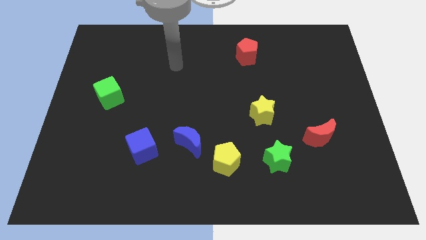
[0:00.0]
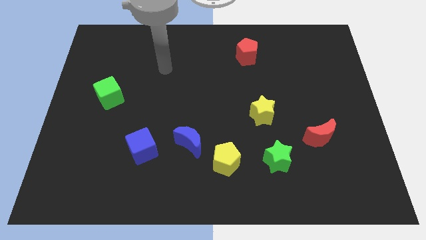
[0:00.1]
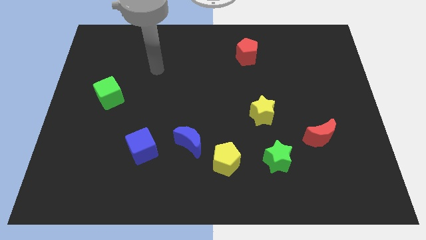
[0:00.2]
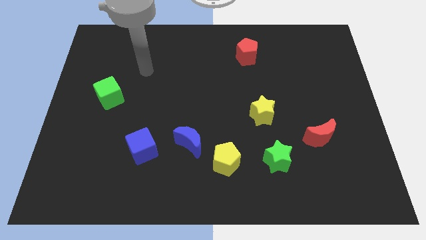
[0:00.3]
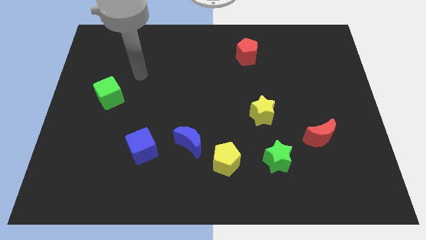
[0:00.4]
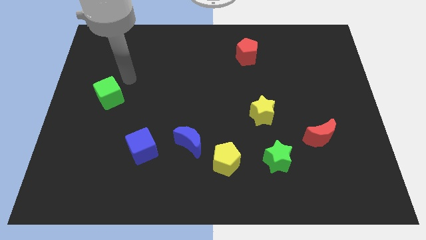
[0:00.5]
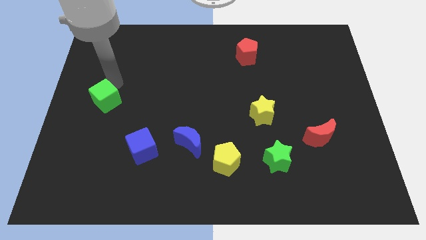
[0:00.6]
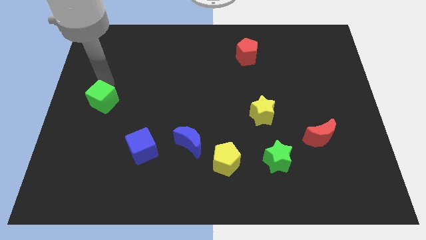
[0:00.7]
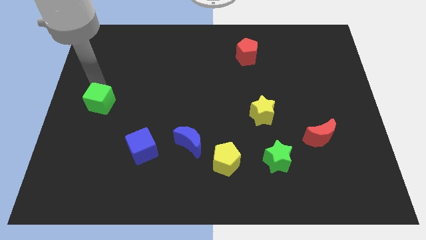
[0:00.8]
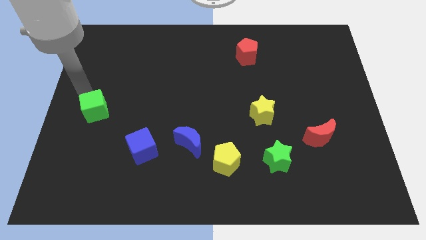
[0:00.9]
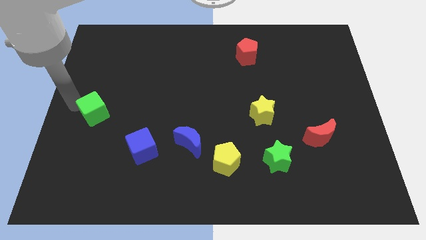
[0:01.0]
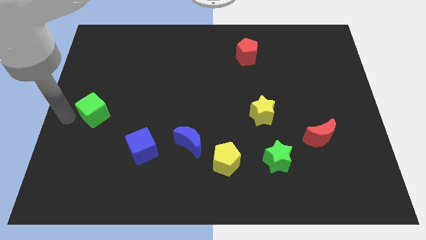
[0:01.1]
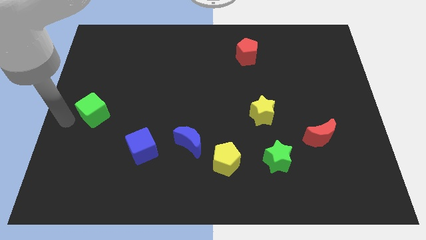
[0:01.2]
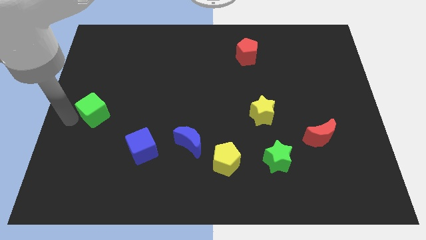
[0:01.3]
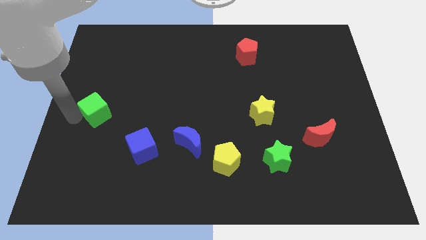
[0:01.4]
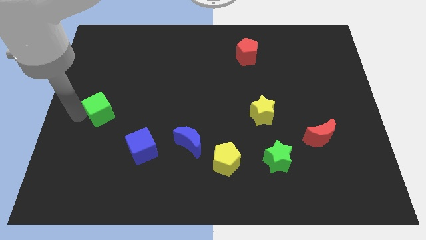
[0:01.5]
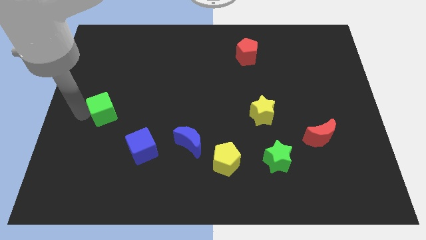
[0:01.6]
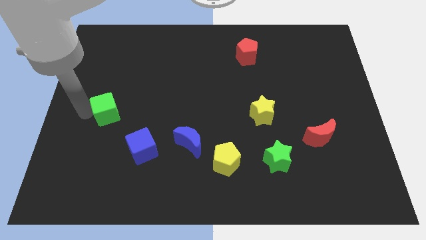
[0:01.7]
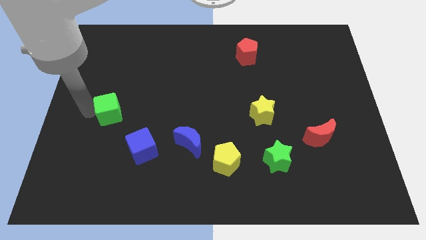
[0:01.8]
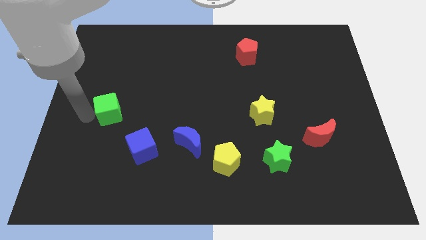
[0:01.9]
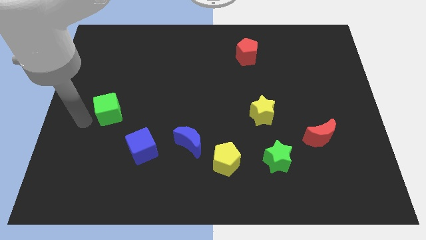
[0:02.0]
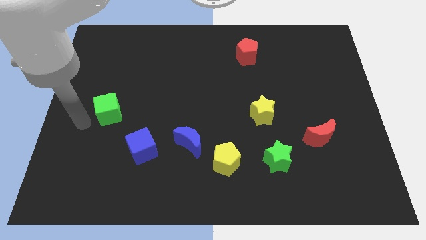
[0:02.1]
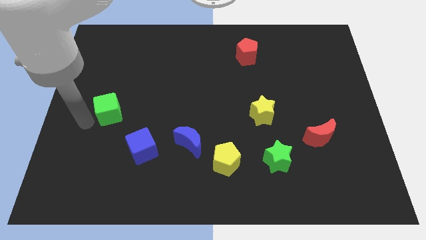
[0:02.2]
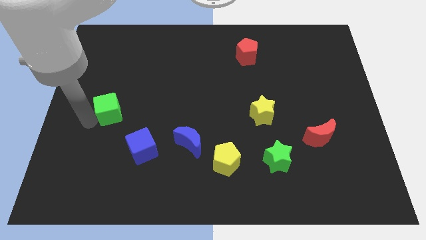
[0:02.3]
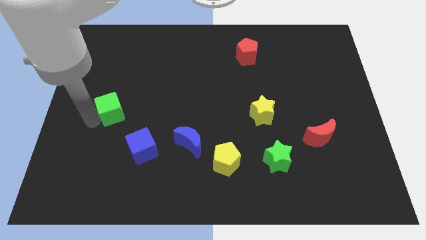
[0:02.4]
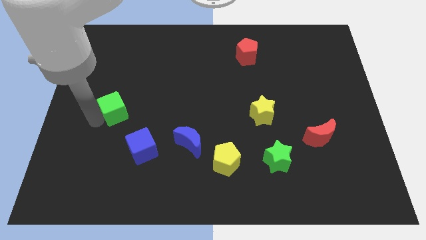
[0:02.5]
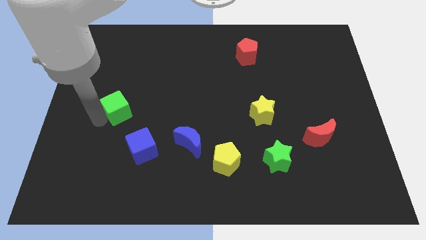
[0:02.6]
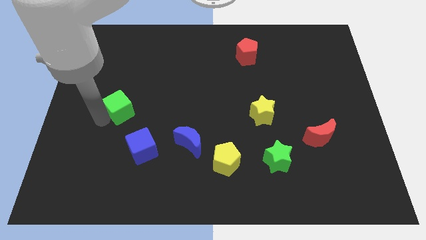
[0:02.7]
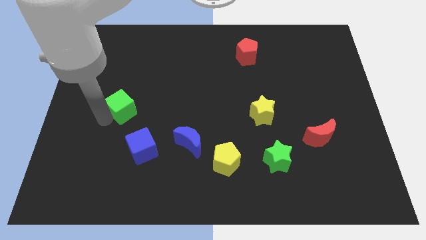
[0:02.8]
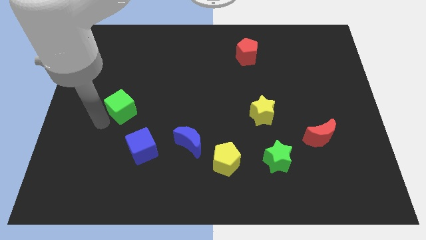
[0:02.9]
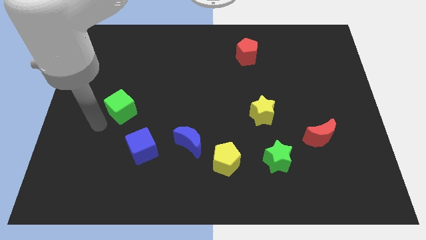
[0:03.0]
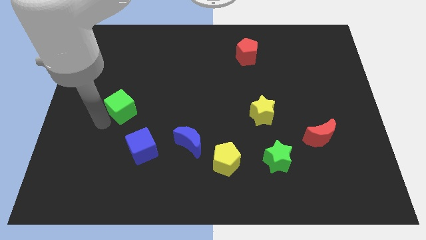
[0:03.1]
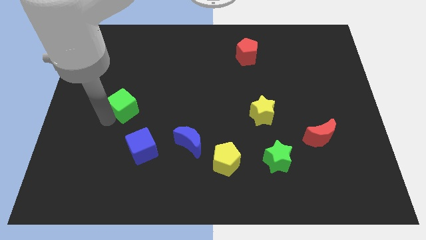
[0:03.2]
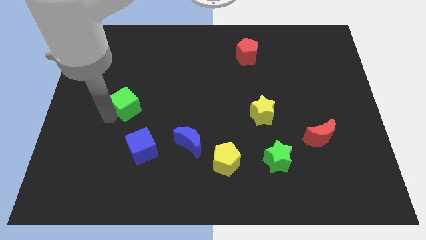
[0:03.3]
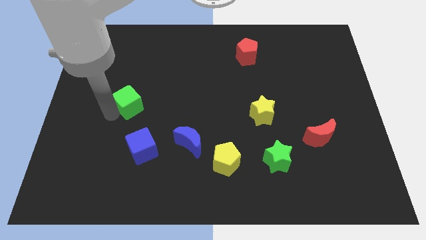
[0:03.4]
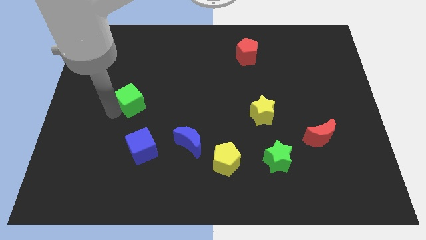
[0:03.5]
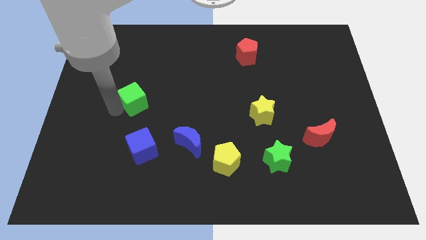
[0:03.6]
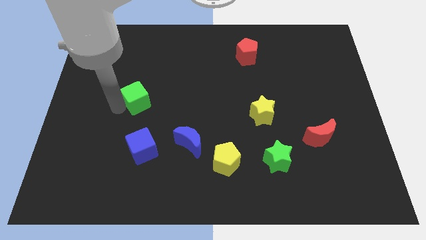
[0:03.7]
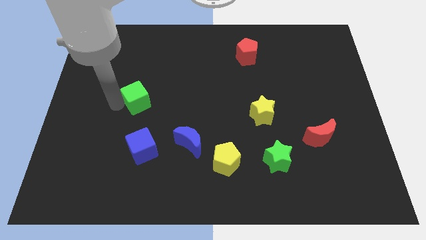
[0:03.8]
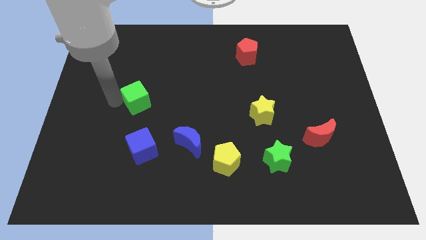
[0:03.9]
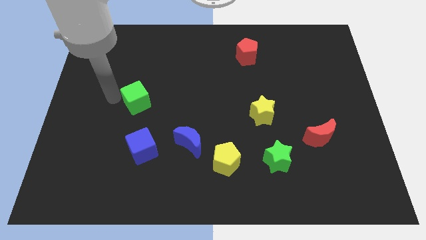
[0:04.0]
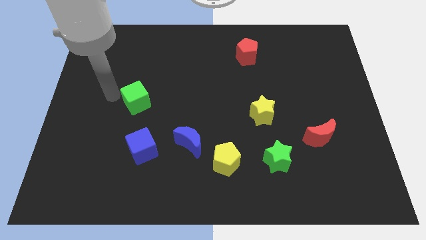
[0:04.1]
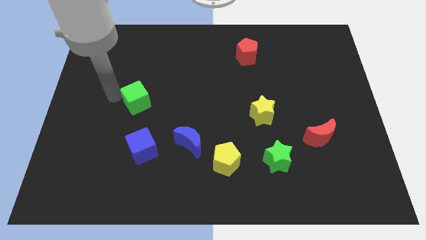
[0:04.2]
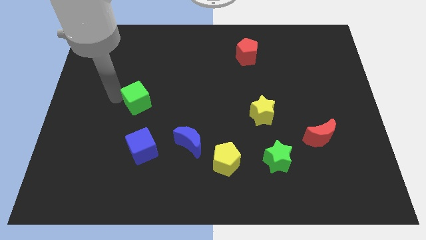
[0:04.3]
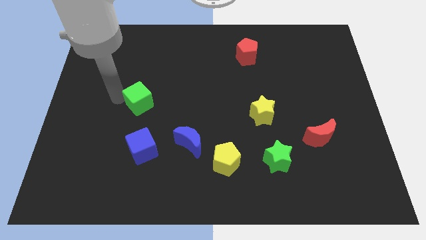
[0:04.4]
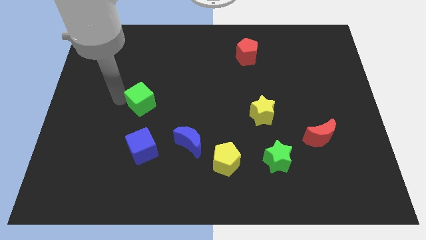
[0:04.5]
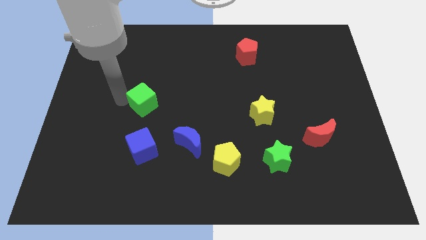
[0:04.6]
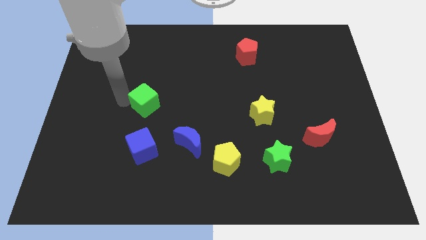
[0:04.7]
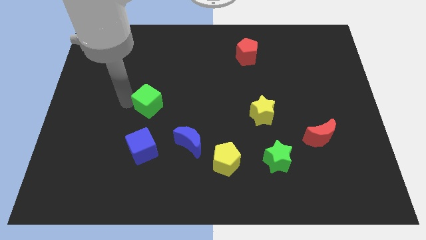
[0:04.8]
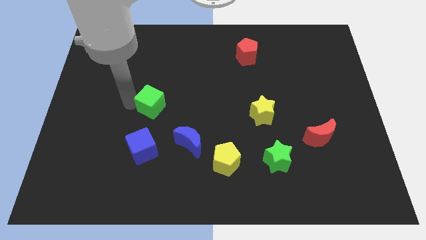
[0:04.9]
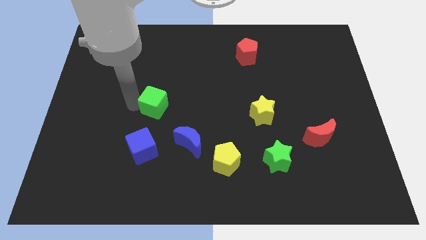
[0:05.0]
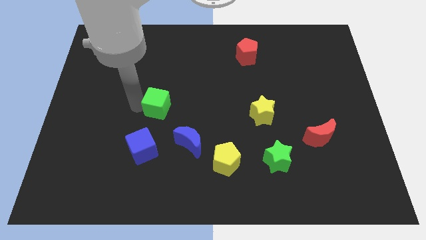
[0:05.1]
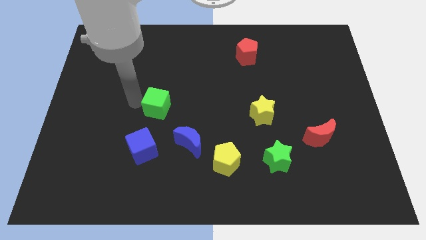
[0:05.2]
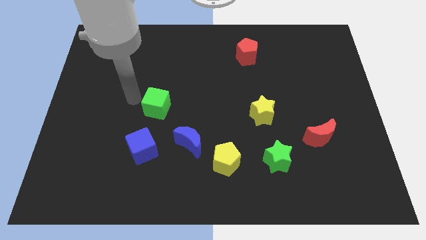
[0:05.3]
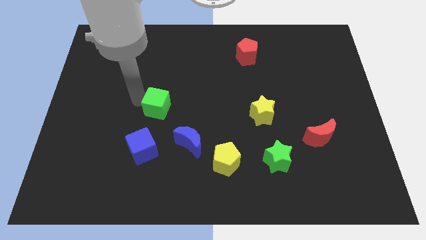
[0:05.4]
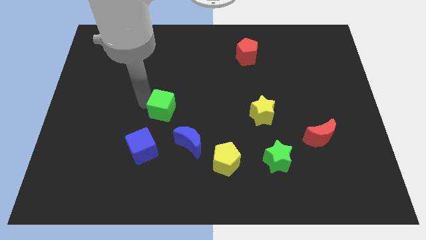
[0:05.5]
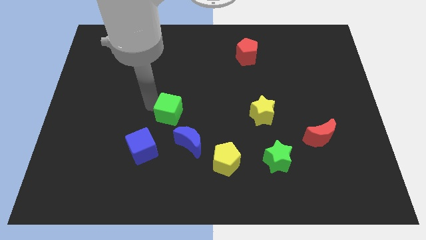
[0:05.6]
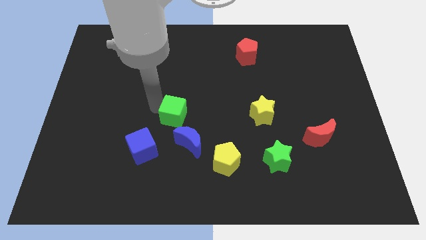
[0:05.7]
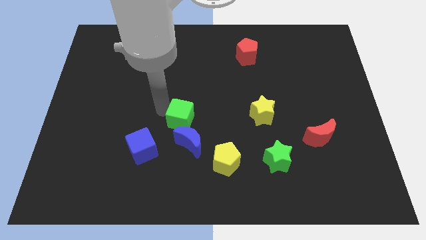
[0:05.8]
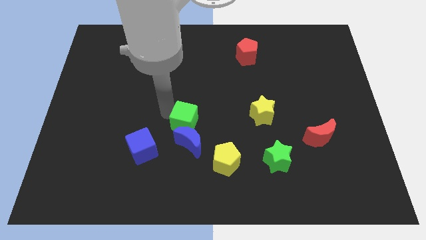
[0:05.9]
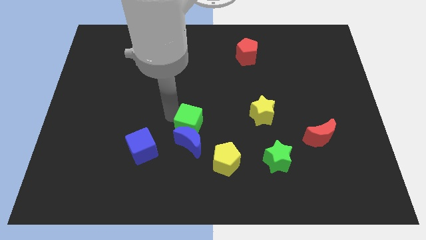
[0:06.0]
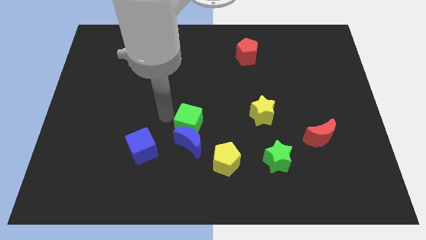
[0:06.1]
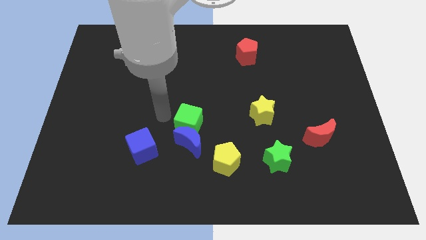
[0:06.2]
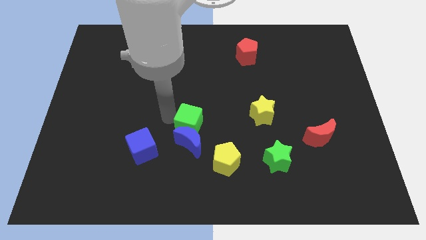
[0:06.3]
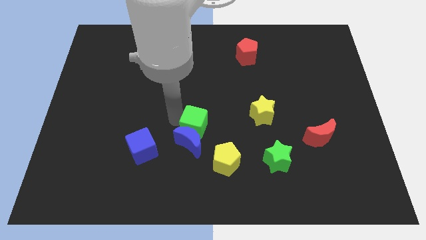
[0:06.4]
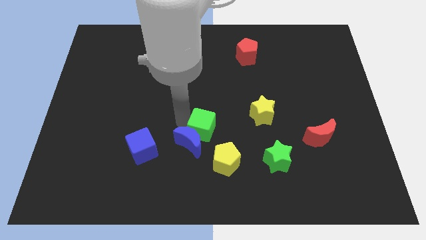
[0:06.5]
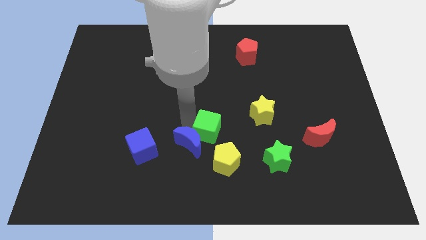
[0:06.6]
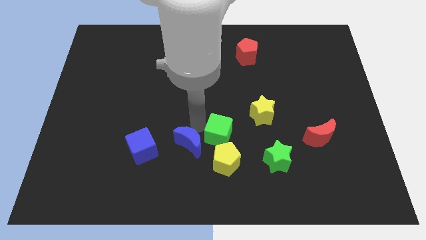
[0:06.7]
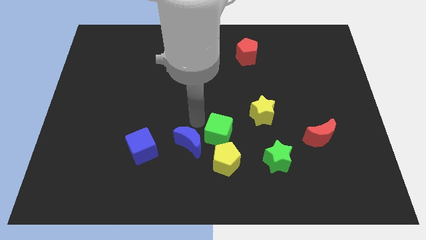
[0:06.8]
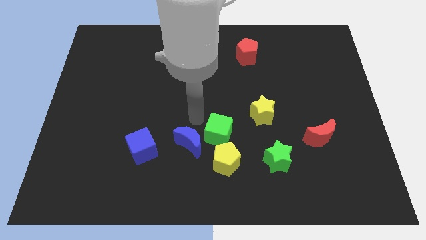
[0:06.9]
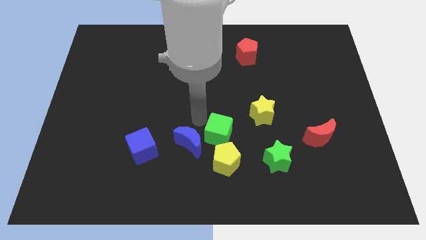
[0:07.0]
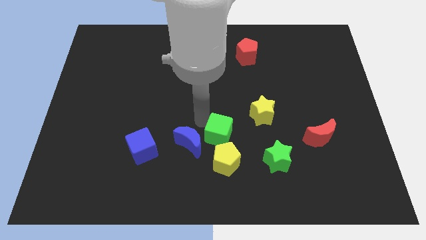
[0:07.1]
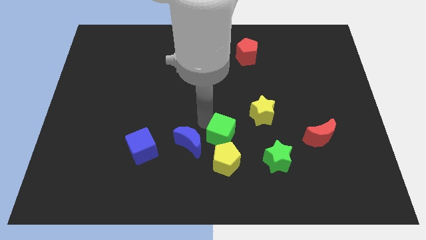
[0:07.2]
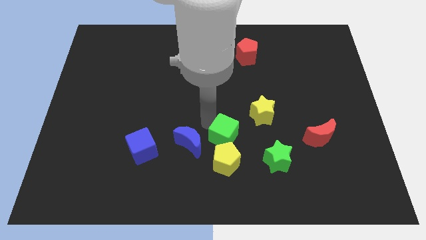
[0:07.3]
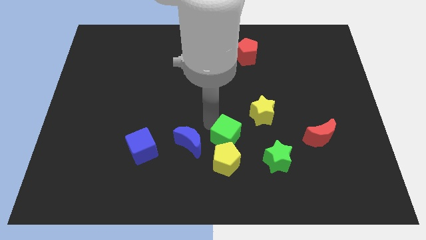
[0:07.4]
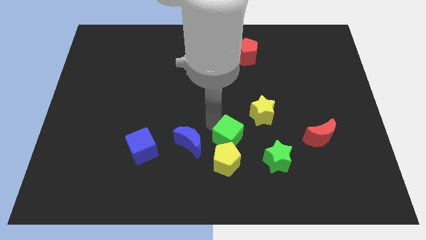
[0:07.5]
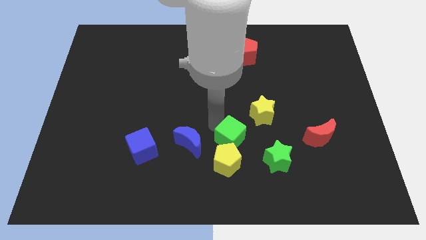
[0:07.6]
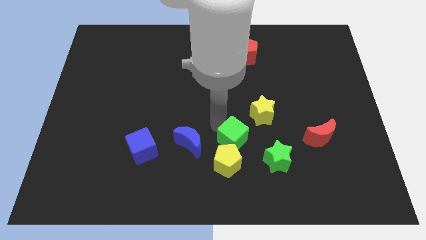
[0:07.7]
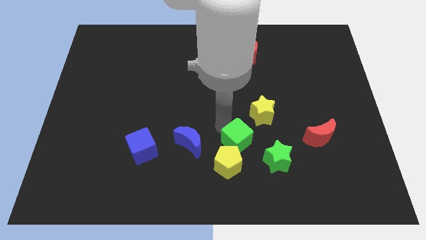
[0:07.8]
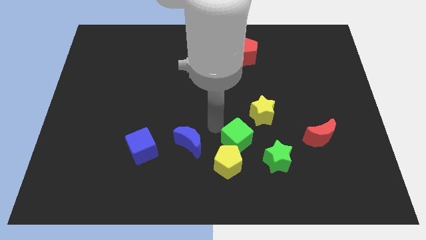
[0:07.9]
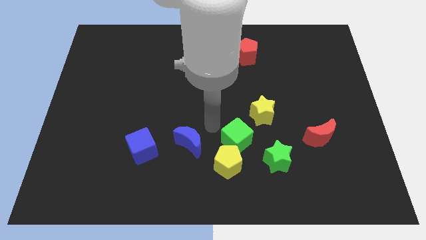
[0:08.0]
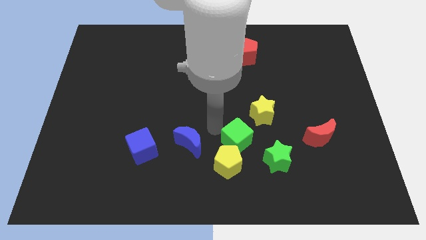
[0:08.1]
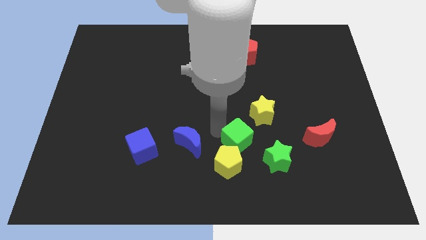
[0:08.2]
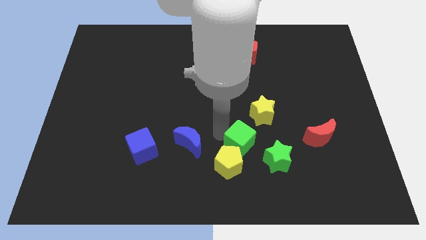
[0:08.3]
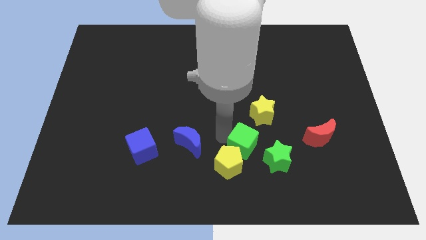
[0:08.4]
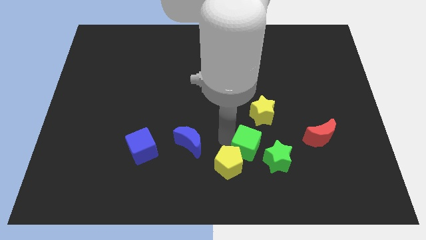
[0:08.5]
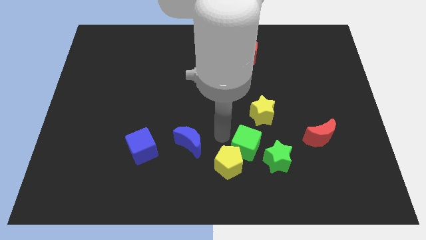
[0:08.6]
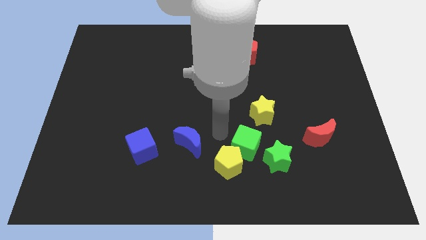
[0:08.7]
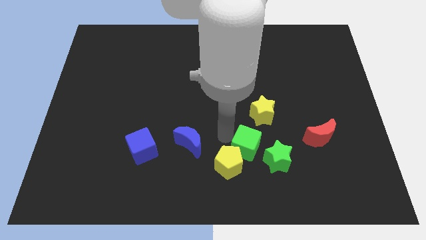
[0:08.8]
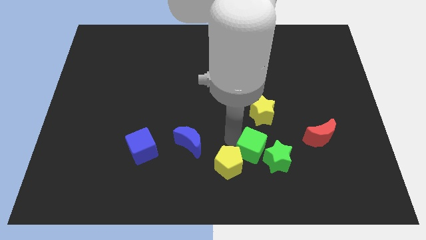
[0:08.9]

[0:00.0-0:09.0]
move the green cube close to the green star
